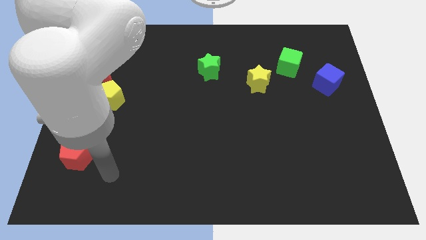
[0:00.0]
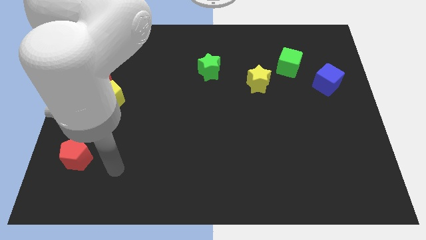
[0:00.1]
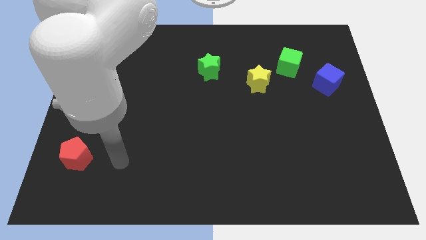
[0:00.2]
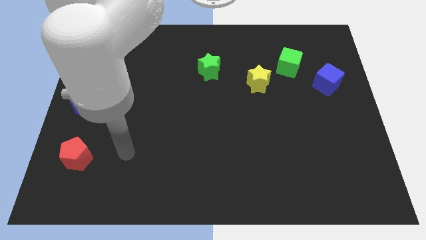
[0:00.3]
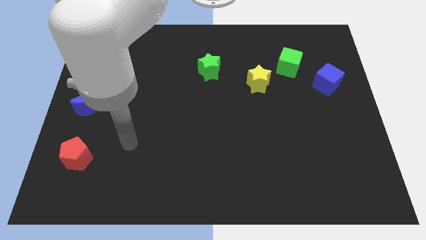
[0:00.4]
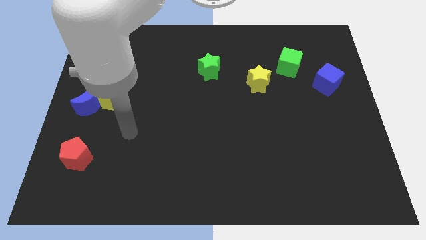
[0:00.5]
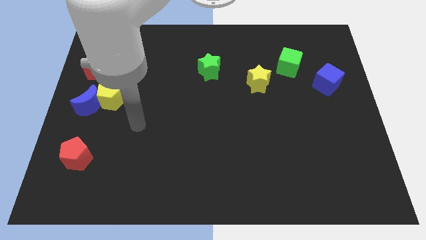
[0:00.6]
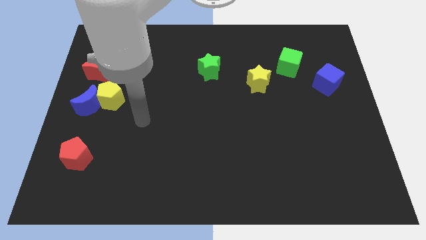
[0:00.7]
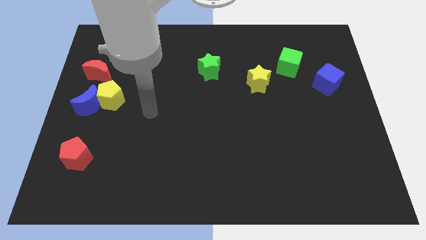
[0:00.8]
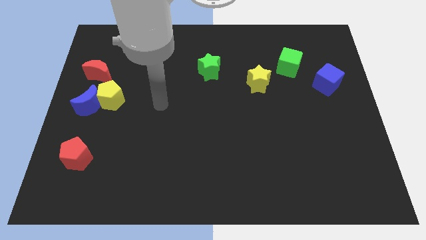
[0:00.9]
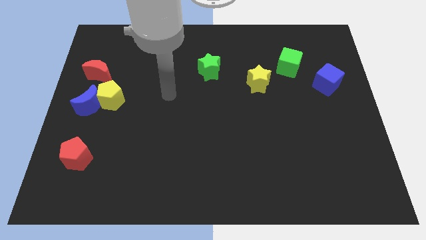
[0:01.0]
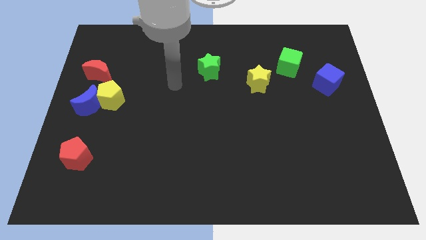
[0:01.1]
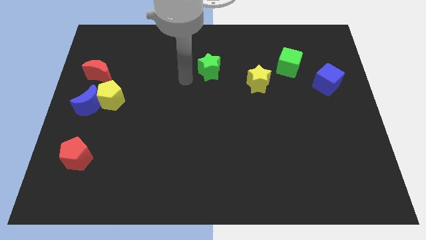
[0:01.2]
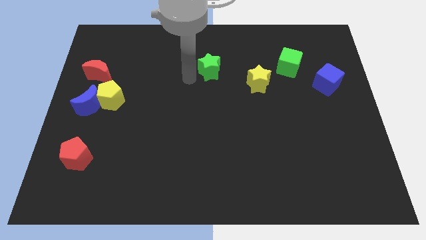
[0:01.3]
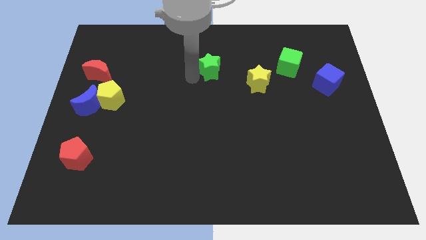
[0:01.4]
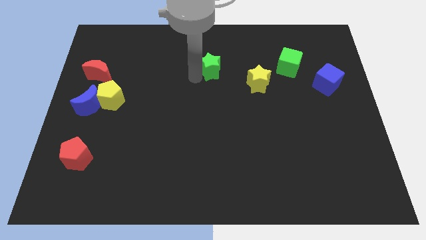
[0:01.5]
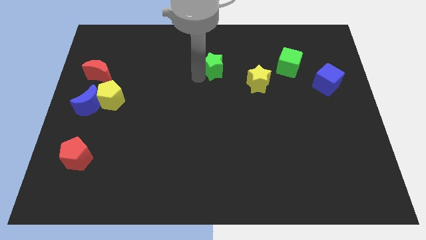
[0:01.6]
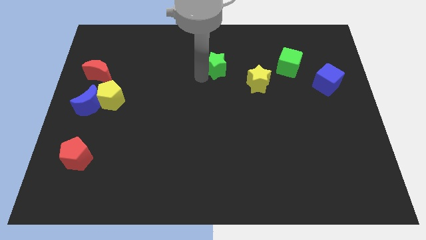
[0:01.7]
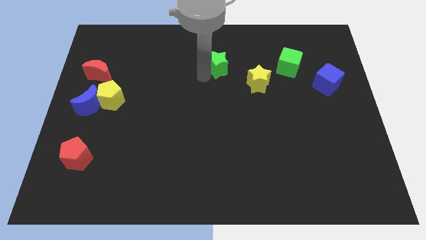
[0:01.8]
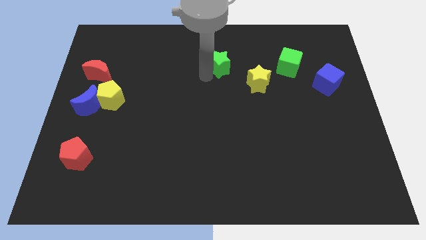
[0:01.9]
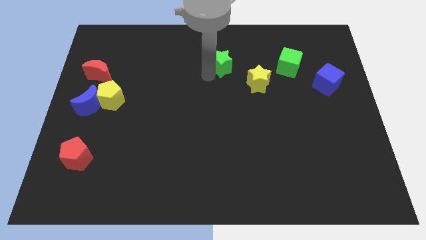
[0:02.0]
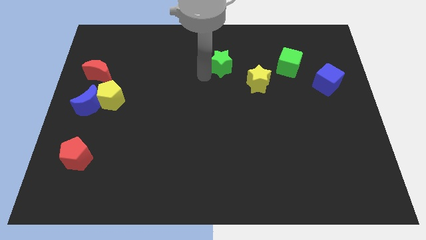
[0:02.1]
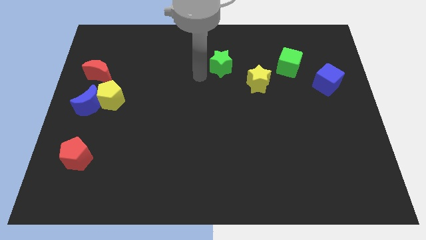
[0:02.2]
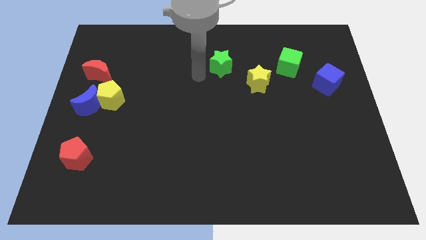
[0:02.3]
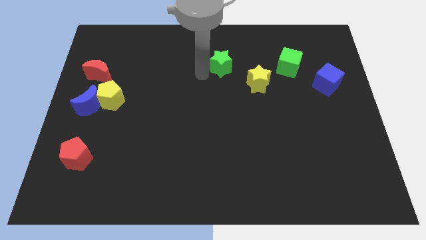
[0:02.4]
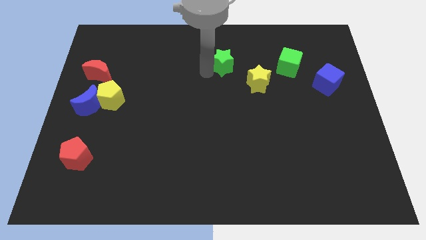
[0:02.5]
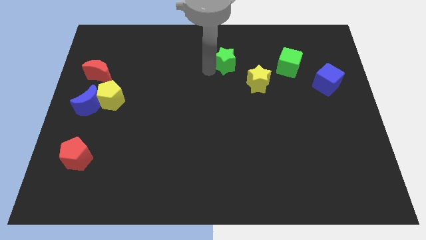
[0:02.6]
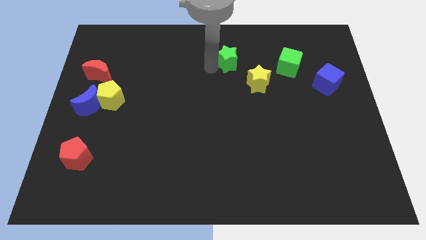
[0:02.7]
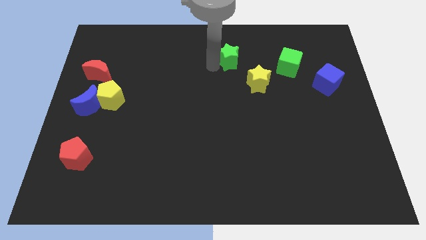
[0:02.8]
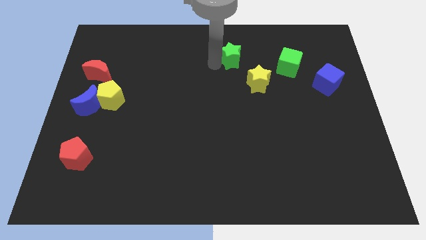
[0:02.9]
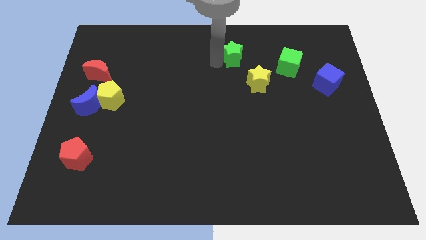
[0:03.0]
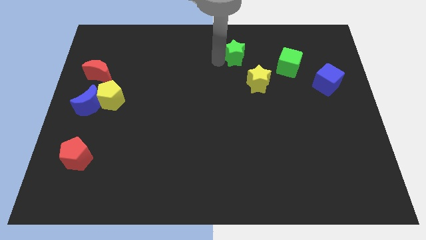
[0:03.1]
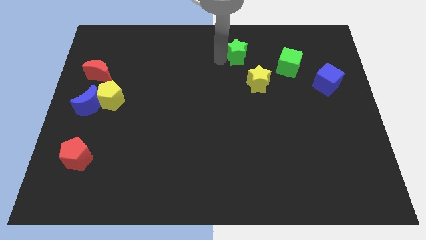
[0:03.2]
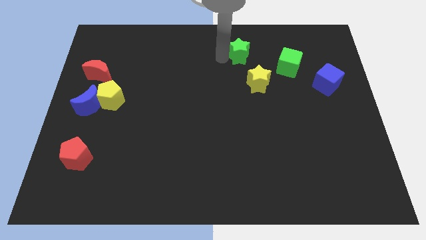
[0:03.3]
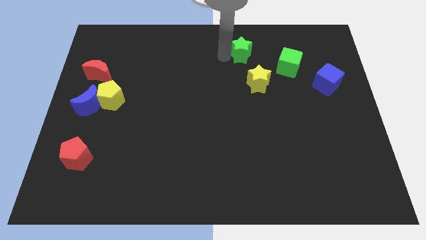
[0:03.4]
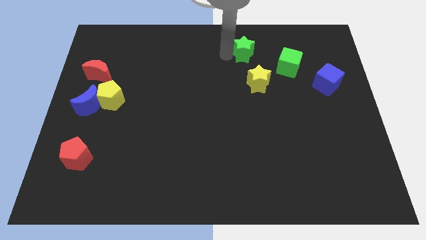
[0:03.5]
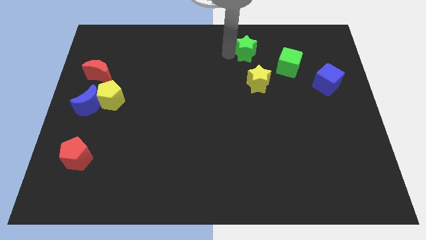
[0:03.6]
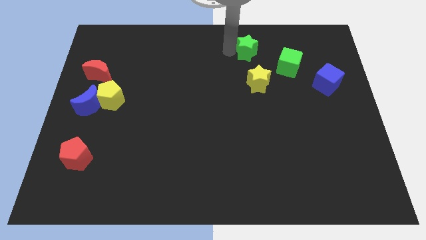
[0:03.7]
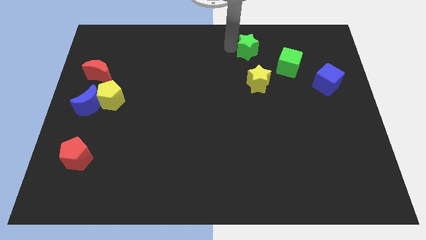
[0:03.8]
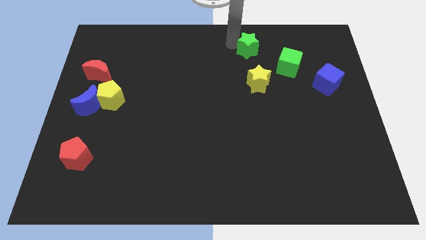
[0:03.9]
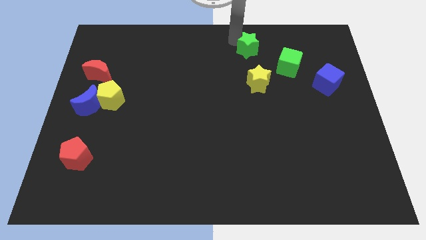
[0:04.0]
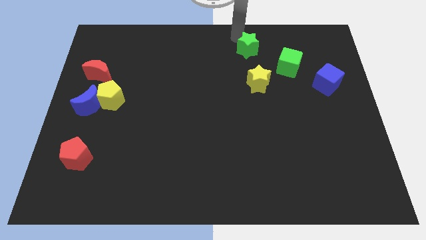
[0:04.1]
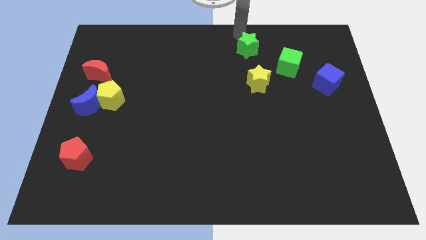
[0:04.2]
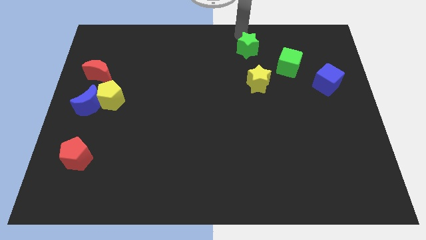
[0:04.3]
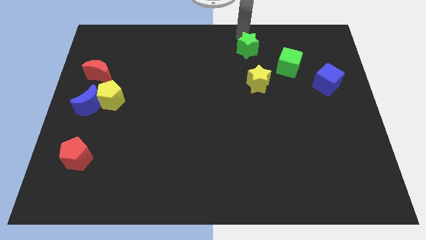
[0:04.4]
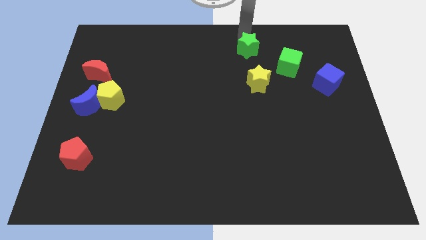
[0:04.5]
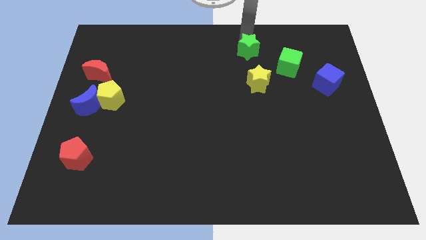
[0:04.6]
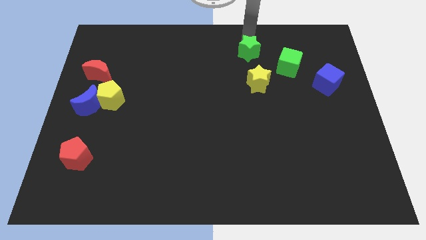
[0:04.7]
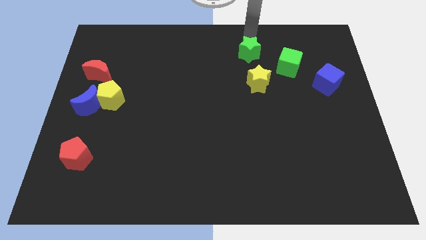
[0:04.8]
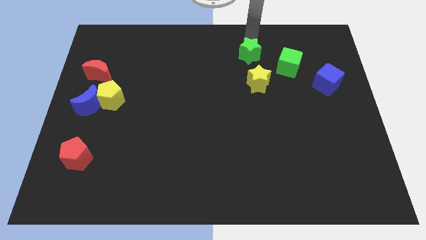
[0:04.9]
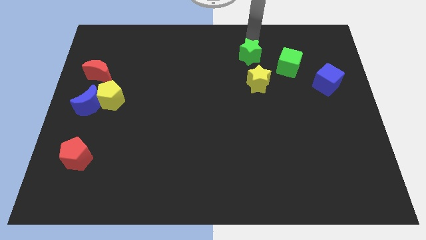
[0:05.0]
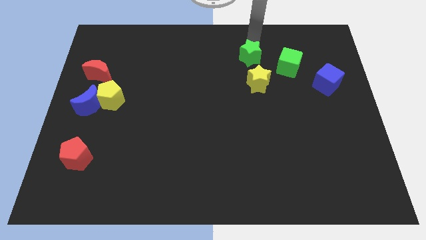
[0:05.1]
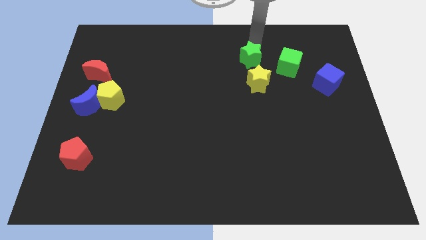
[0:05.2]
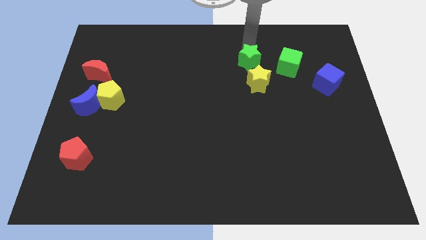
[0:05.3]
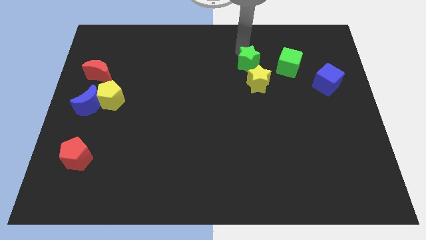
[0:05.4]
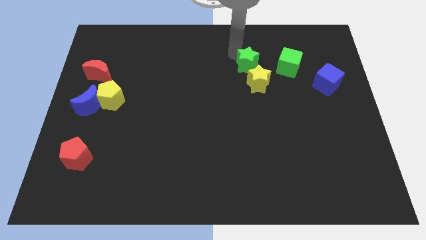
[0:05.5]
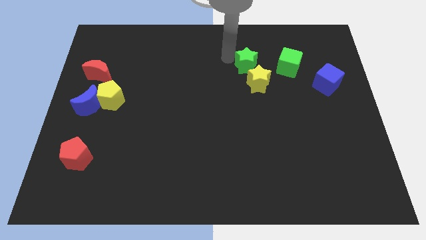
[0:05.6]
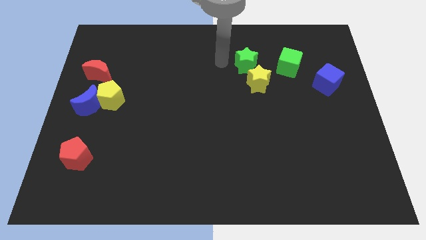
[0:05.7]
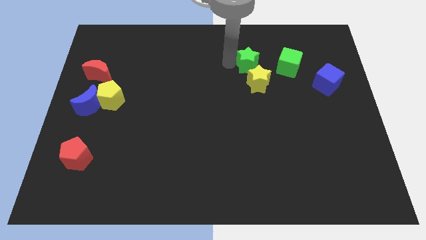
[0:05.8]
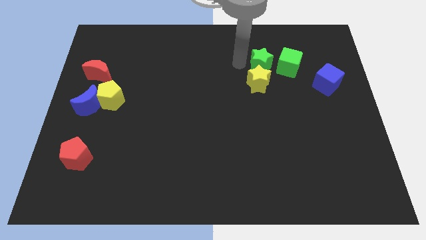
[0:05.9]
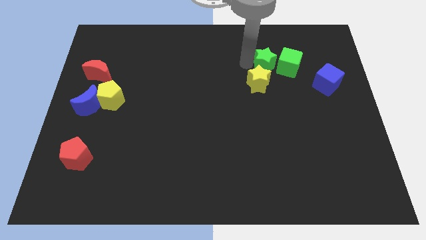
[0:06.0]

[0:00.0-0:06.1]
put the green star towards the green cube

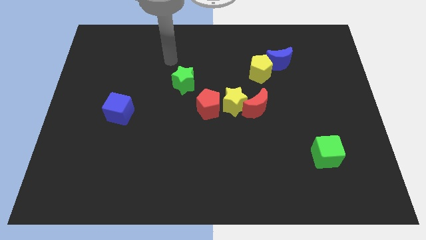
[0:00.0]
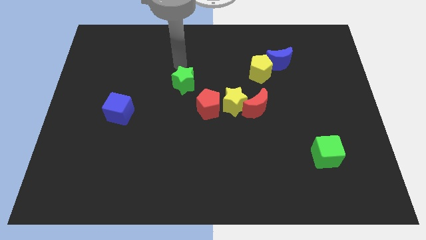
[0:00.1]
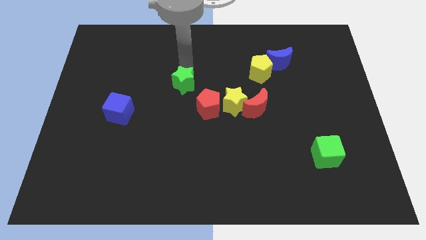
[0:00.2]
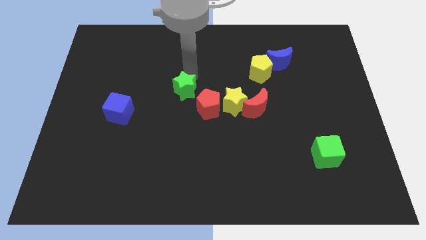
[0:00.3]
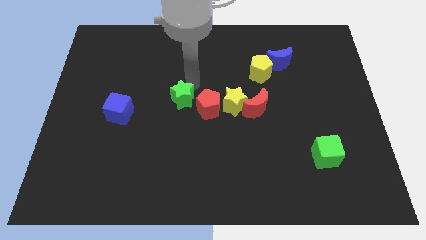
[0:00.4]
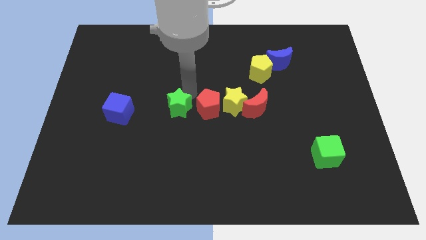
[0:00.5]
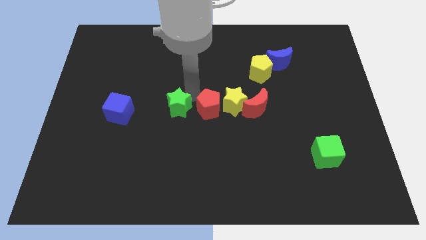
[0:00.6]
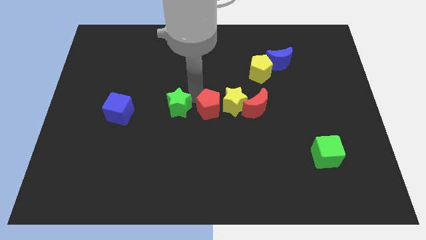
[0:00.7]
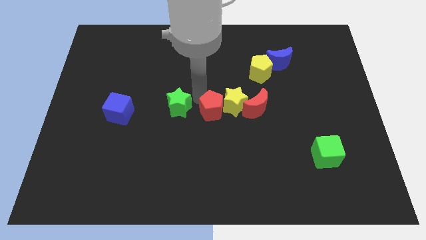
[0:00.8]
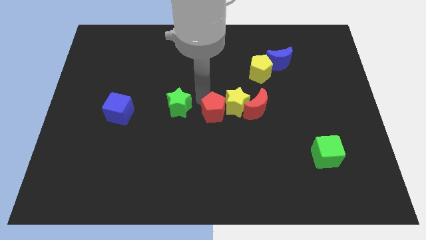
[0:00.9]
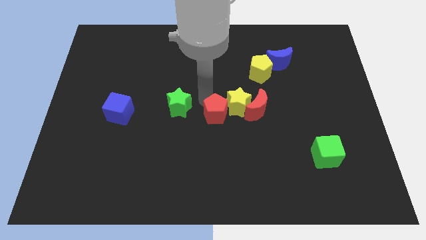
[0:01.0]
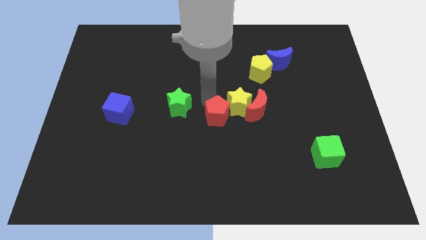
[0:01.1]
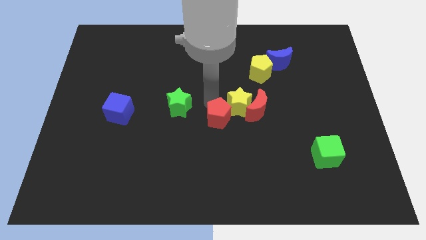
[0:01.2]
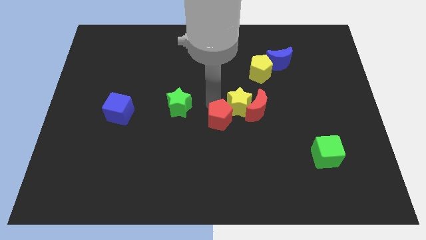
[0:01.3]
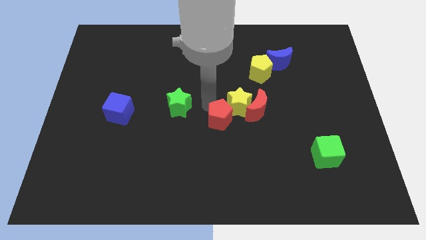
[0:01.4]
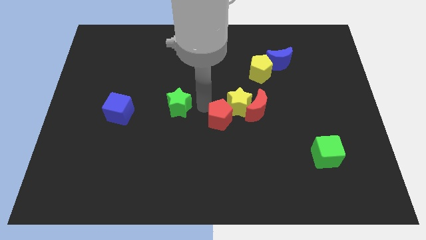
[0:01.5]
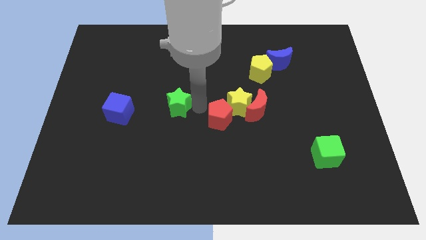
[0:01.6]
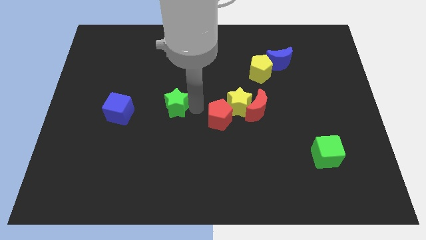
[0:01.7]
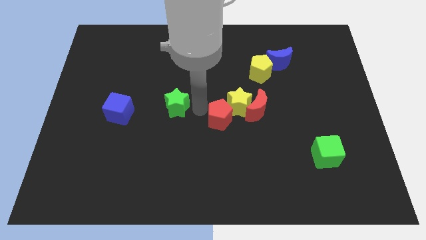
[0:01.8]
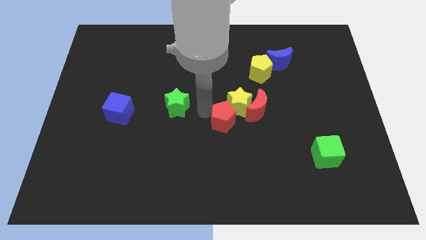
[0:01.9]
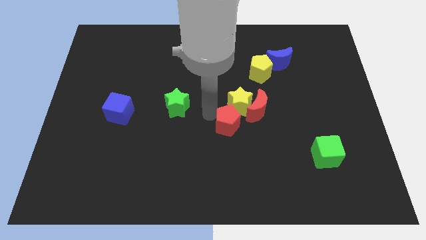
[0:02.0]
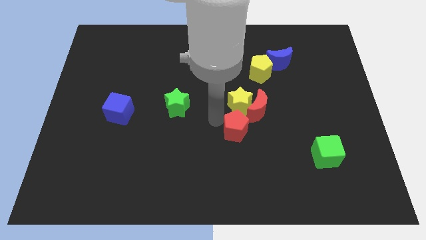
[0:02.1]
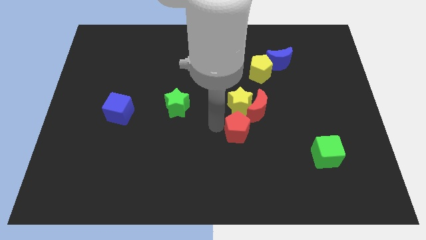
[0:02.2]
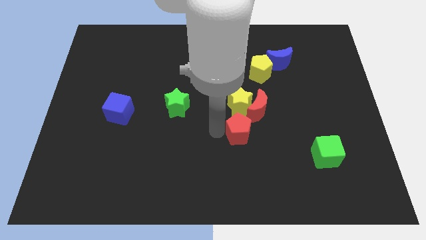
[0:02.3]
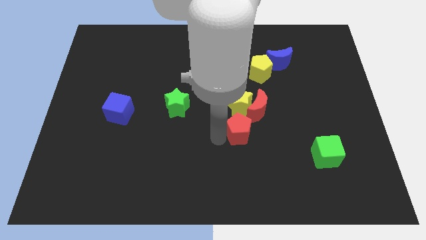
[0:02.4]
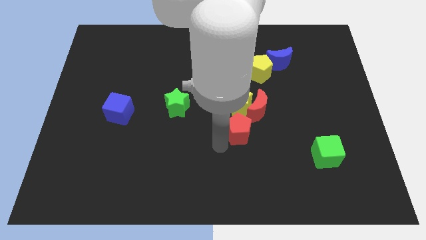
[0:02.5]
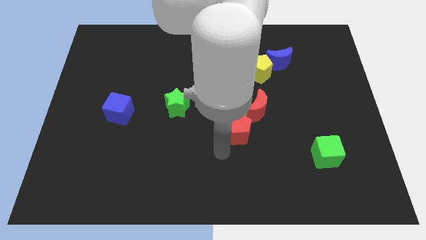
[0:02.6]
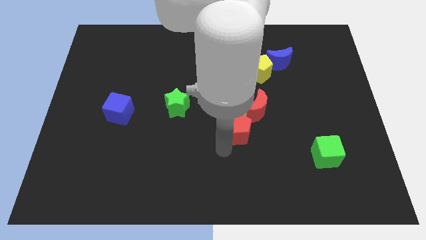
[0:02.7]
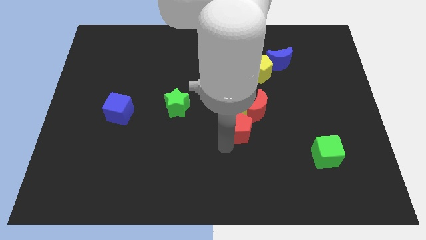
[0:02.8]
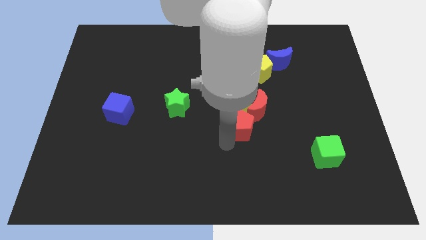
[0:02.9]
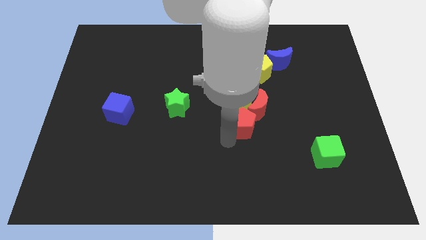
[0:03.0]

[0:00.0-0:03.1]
slide the red pentagon close to the red moon
